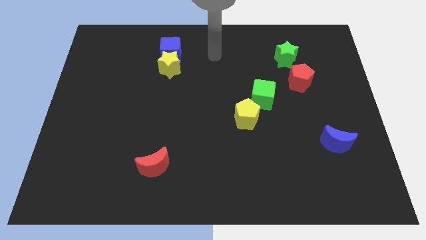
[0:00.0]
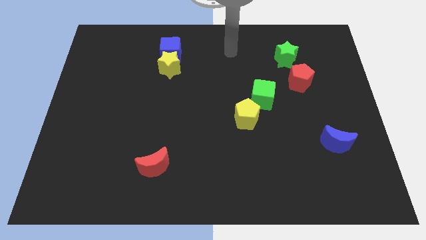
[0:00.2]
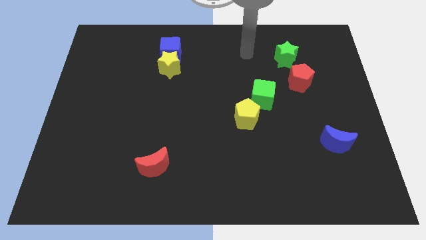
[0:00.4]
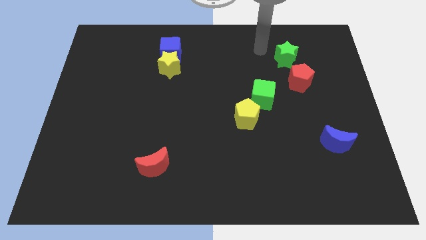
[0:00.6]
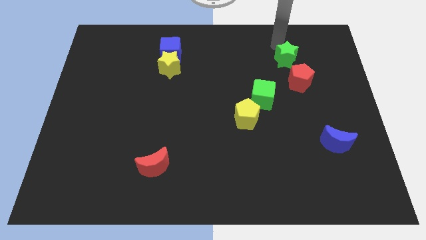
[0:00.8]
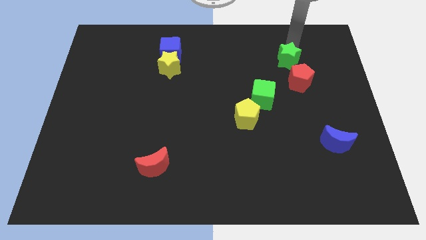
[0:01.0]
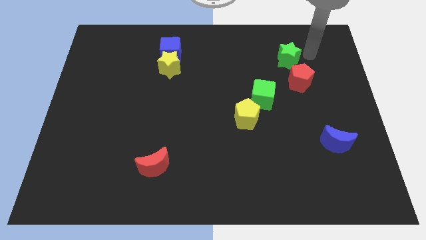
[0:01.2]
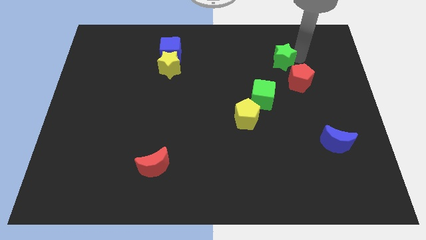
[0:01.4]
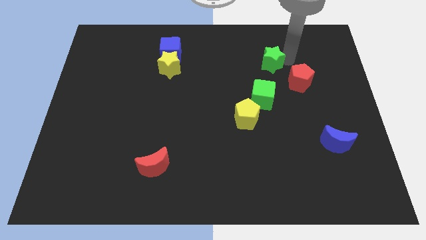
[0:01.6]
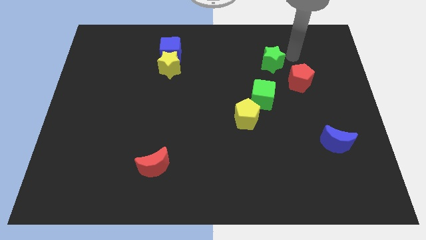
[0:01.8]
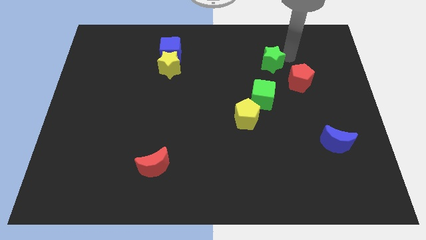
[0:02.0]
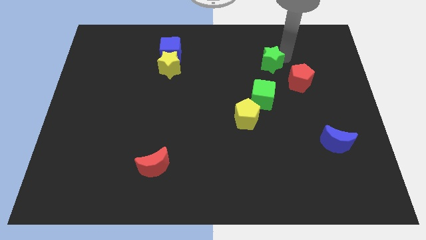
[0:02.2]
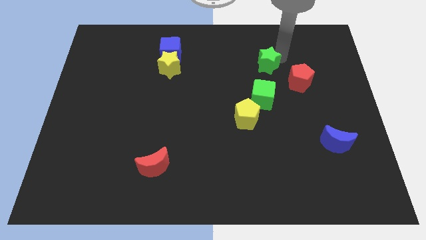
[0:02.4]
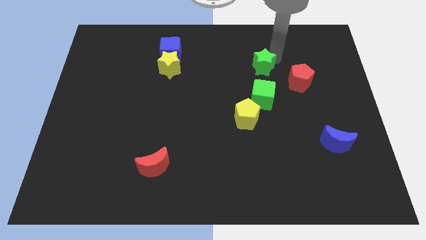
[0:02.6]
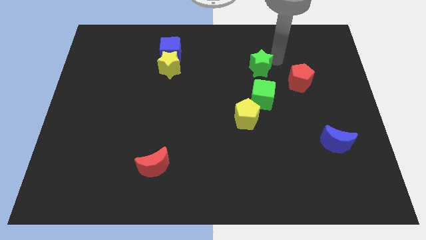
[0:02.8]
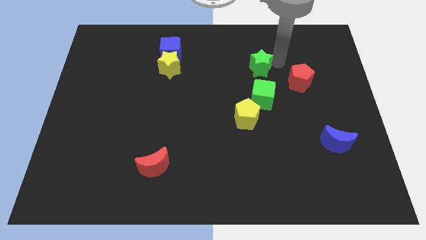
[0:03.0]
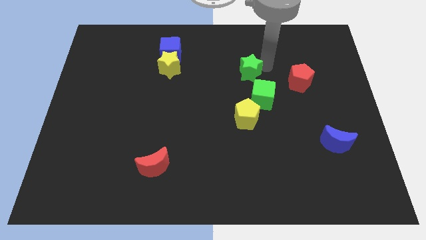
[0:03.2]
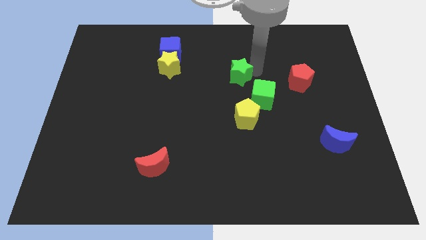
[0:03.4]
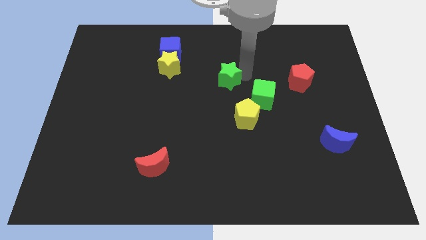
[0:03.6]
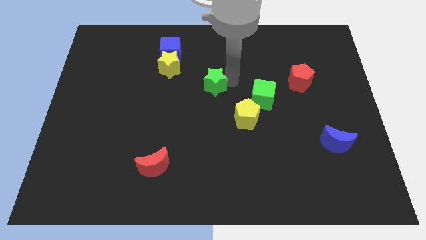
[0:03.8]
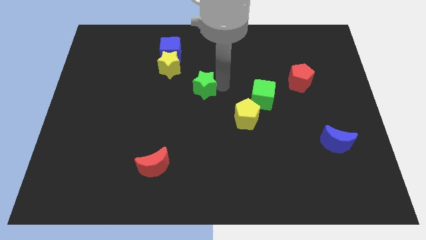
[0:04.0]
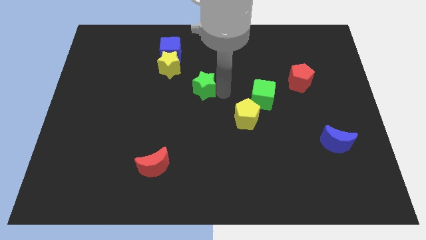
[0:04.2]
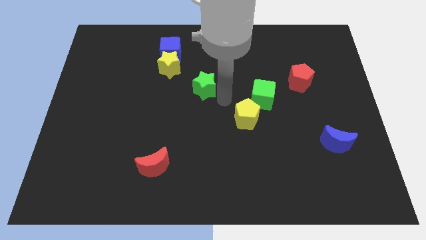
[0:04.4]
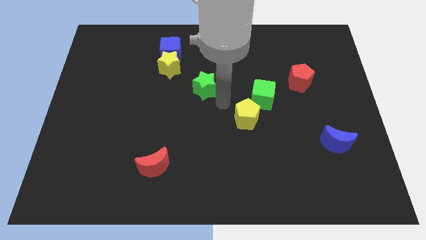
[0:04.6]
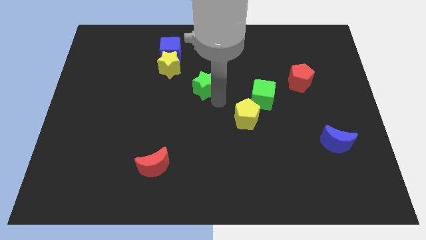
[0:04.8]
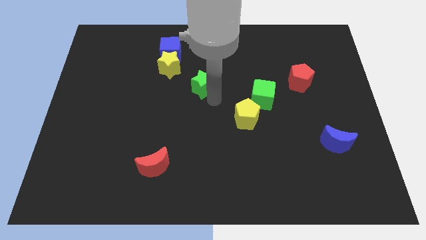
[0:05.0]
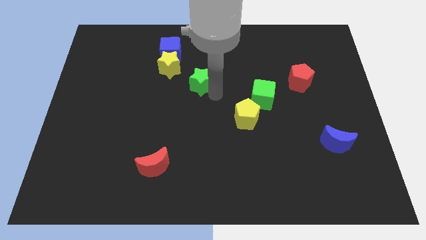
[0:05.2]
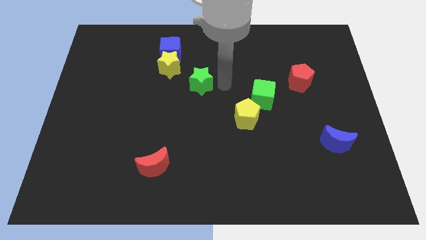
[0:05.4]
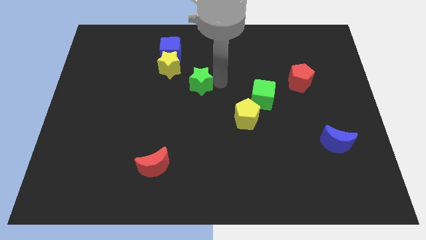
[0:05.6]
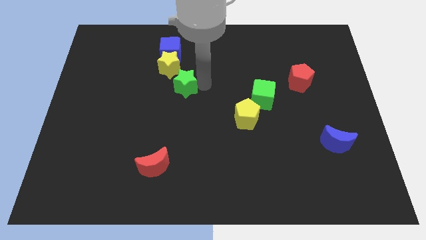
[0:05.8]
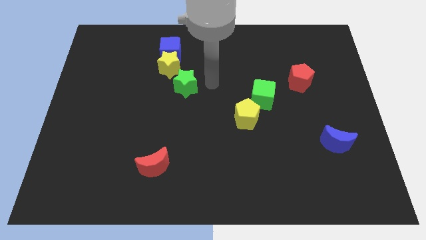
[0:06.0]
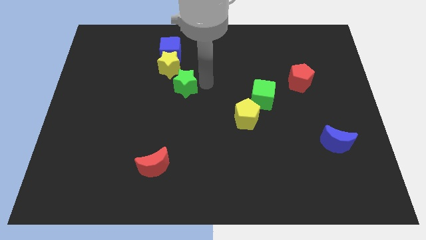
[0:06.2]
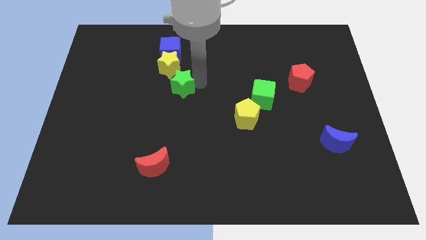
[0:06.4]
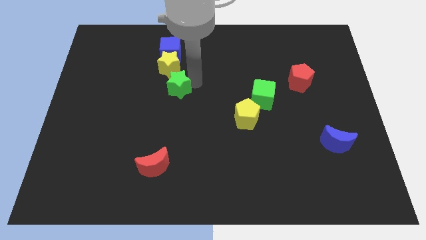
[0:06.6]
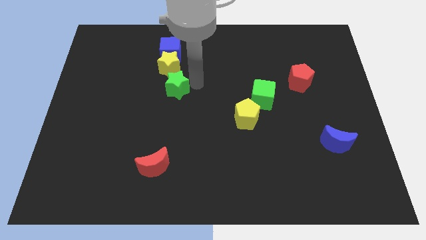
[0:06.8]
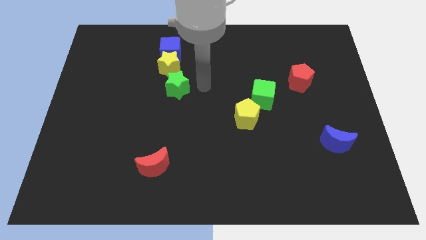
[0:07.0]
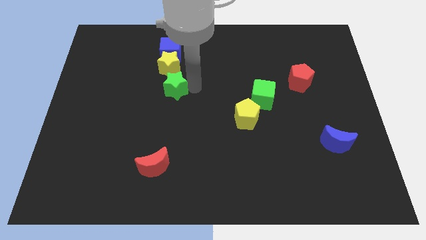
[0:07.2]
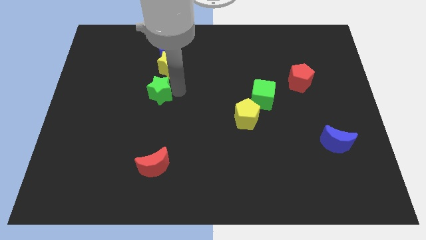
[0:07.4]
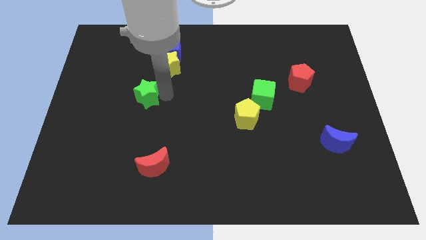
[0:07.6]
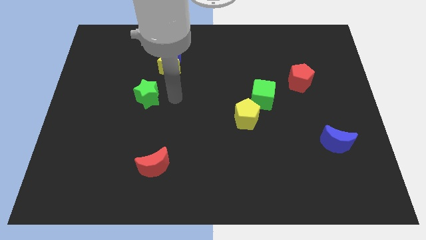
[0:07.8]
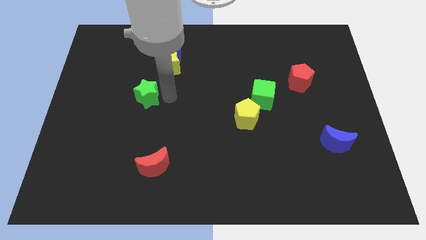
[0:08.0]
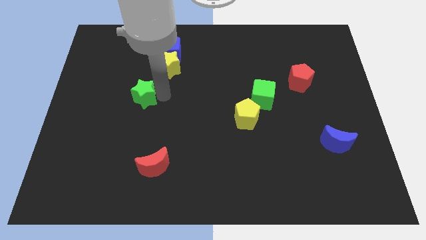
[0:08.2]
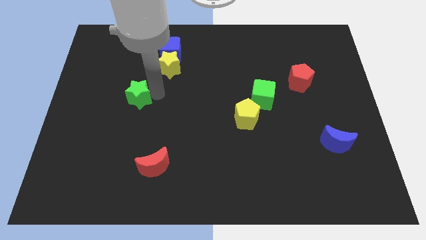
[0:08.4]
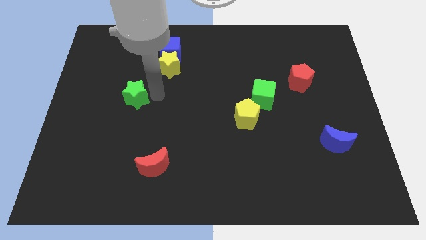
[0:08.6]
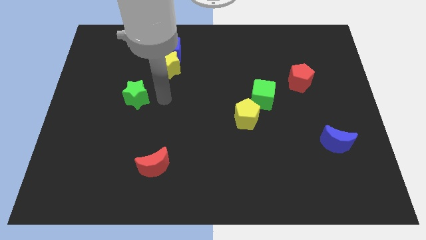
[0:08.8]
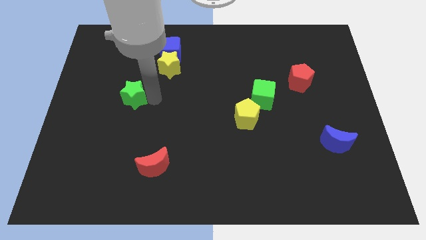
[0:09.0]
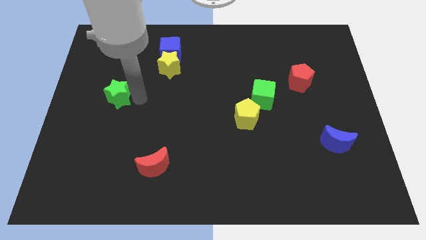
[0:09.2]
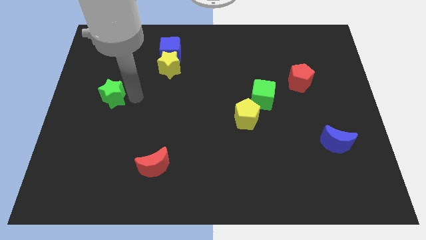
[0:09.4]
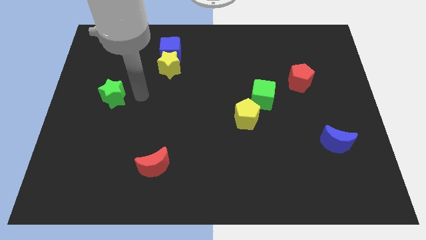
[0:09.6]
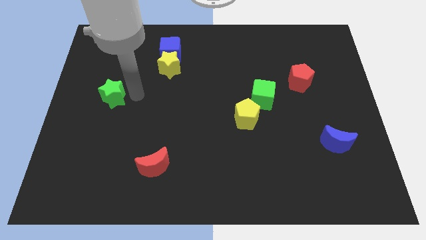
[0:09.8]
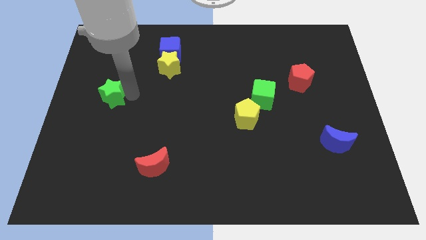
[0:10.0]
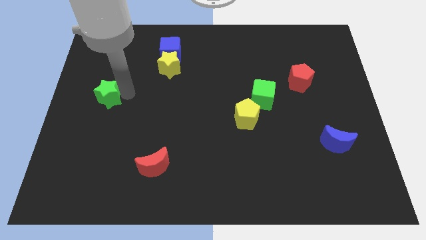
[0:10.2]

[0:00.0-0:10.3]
push the green star to the left side of the board
